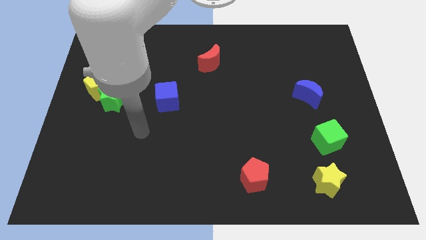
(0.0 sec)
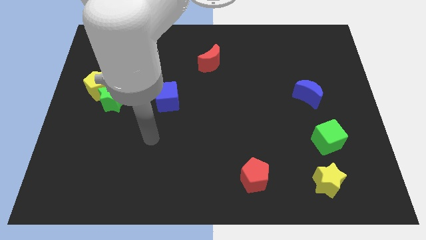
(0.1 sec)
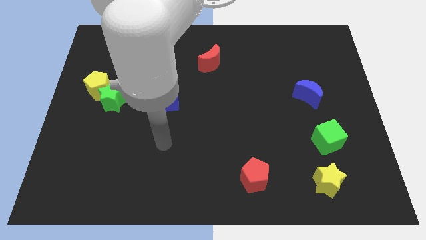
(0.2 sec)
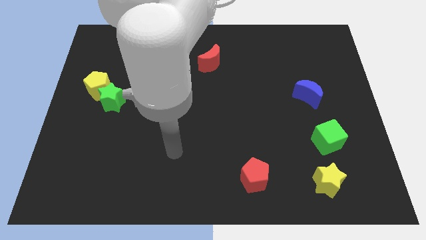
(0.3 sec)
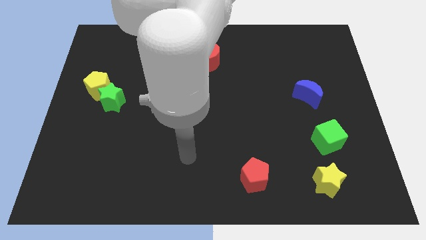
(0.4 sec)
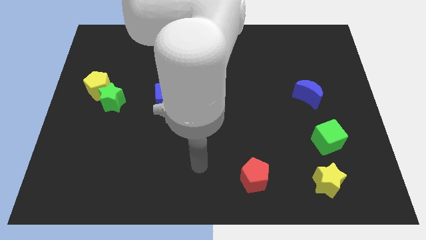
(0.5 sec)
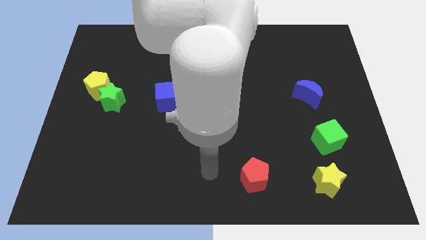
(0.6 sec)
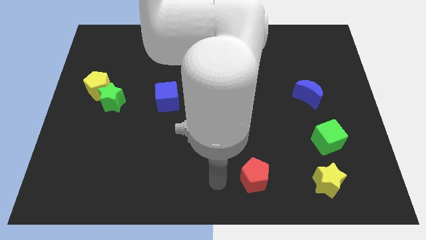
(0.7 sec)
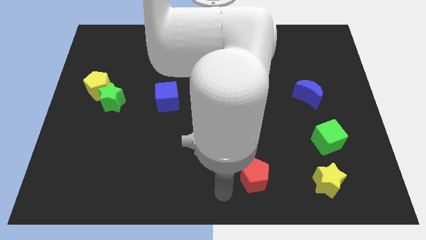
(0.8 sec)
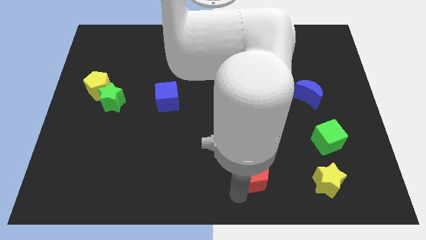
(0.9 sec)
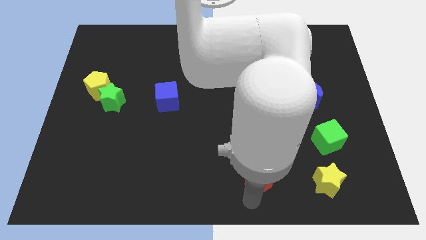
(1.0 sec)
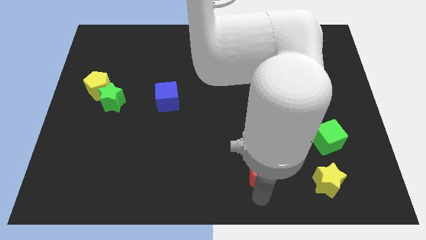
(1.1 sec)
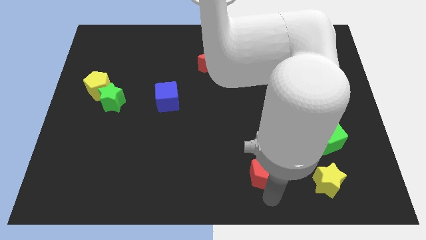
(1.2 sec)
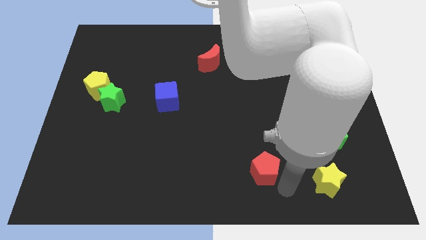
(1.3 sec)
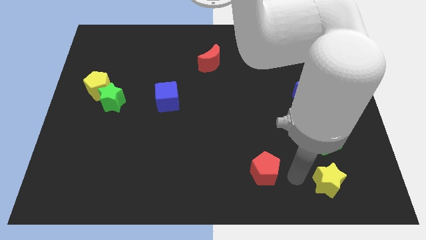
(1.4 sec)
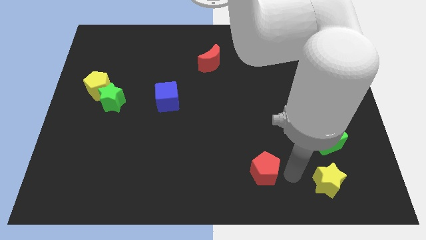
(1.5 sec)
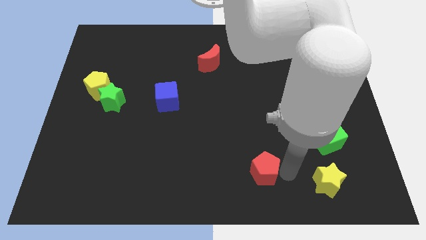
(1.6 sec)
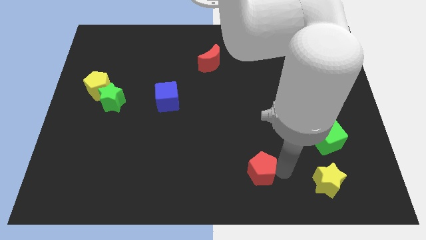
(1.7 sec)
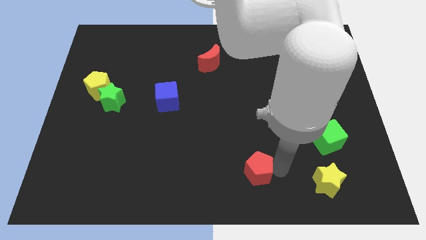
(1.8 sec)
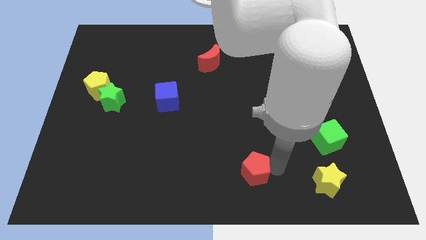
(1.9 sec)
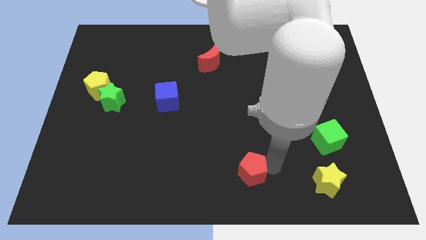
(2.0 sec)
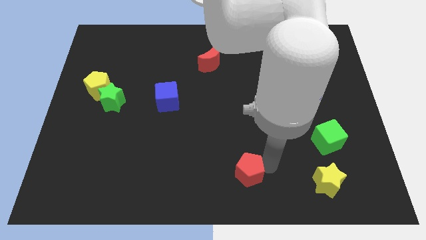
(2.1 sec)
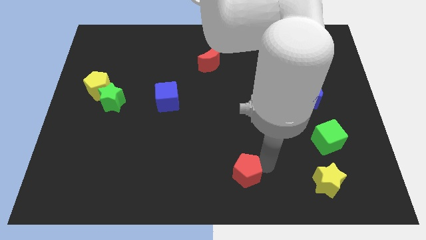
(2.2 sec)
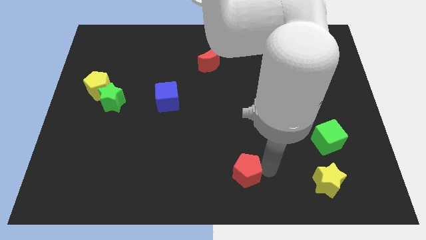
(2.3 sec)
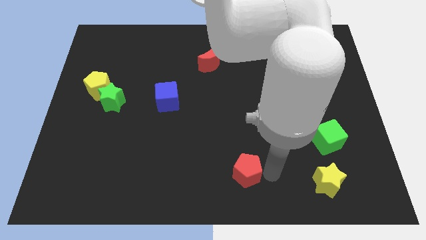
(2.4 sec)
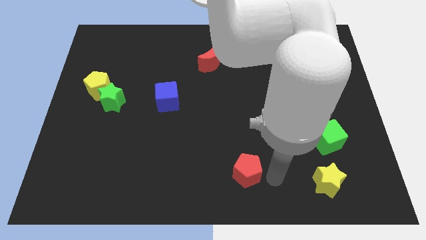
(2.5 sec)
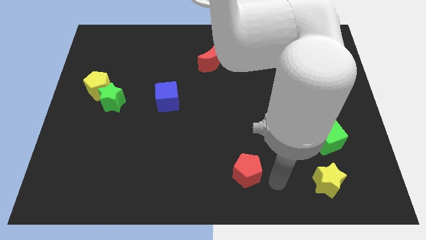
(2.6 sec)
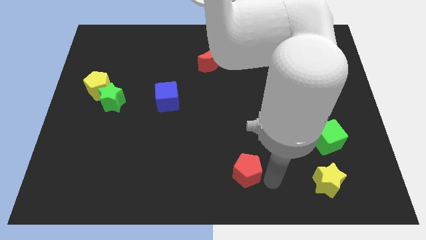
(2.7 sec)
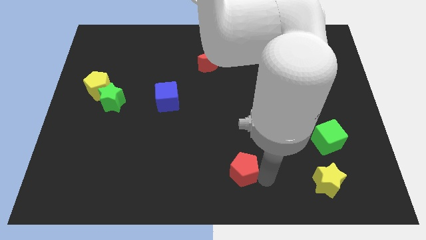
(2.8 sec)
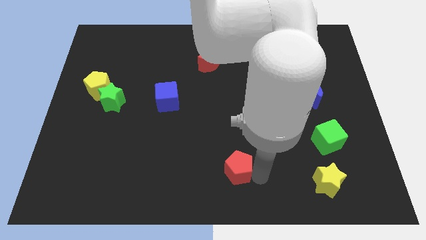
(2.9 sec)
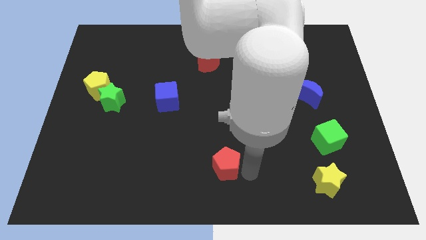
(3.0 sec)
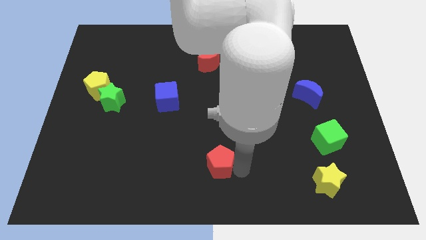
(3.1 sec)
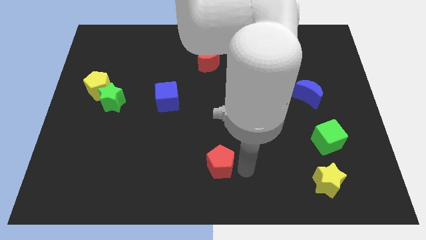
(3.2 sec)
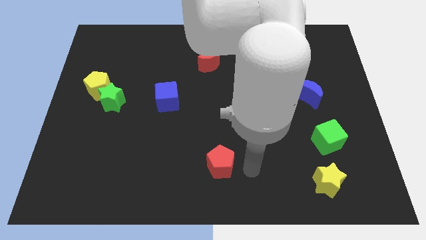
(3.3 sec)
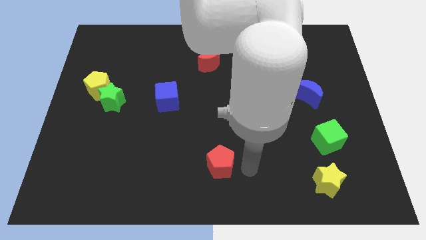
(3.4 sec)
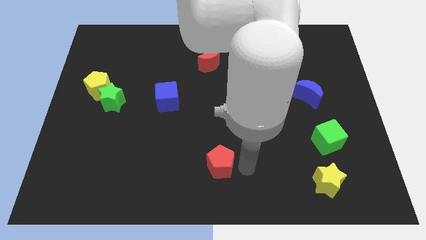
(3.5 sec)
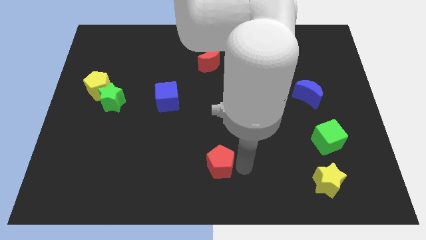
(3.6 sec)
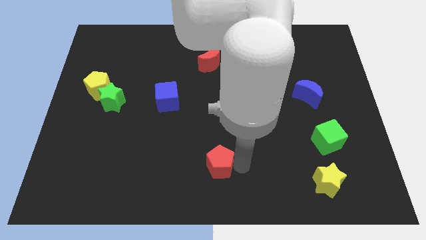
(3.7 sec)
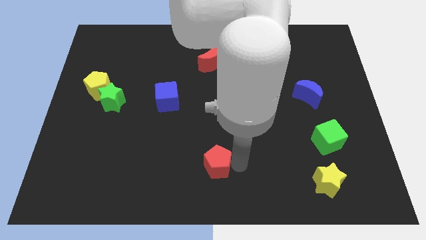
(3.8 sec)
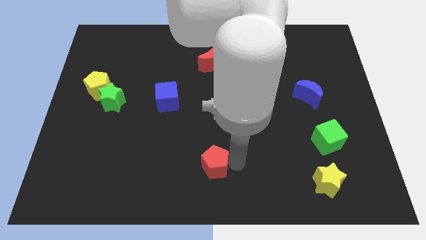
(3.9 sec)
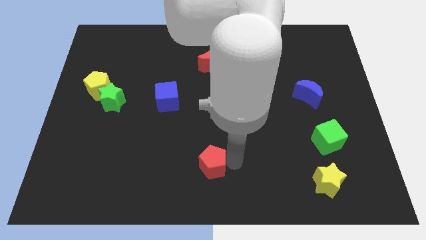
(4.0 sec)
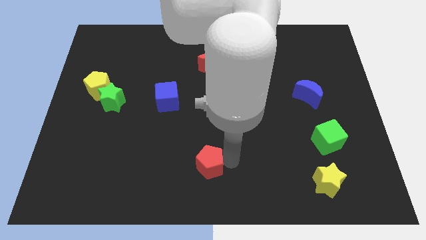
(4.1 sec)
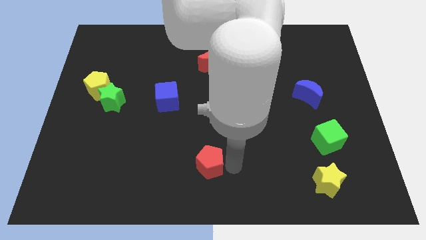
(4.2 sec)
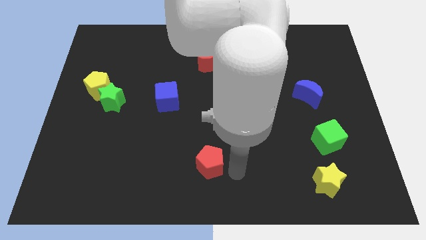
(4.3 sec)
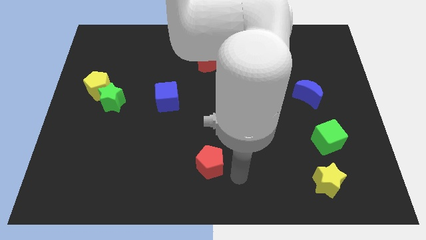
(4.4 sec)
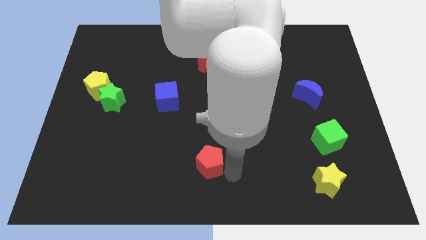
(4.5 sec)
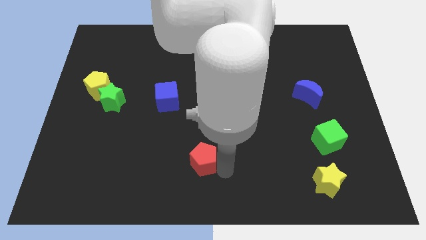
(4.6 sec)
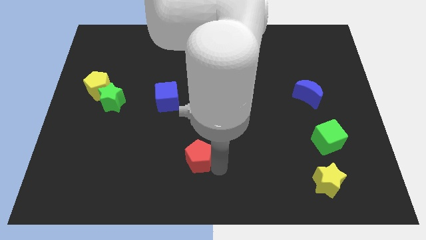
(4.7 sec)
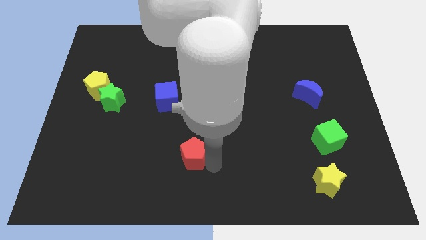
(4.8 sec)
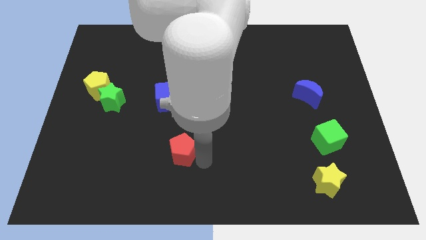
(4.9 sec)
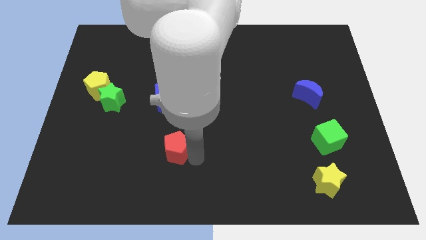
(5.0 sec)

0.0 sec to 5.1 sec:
push the red pentagon below the blue cube

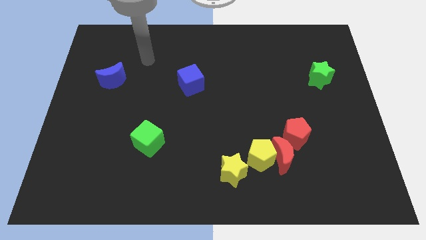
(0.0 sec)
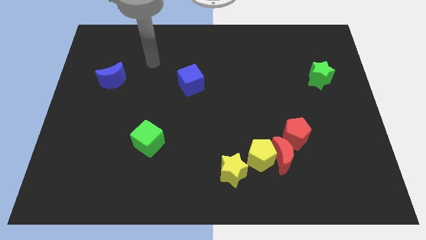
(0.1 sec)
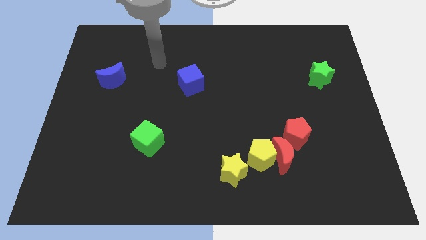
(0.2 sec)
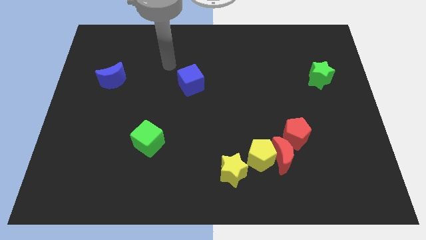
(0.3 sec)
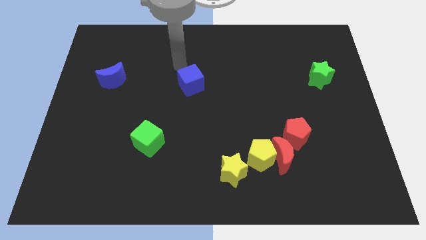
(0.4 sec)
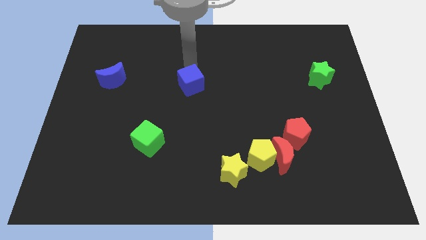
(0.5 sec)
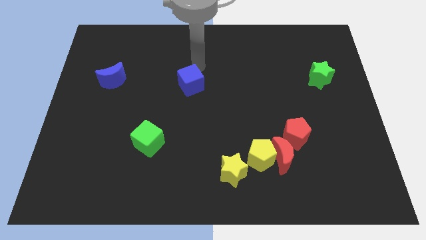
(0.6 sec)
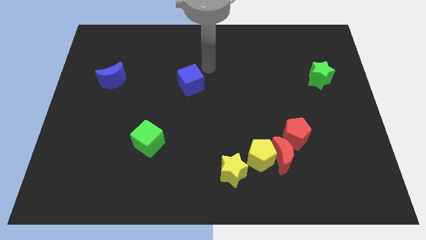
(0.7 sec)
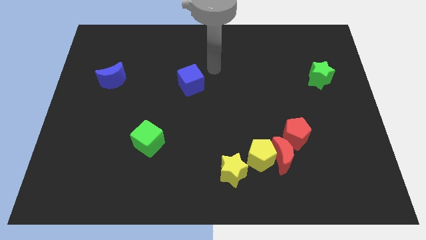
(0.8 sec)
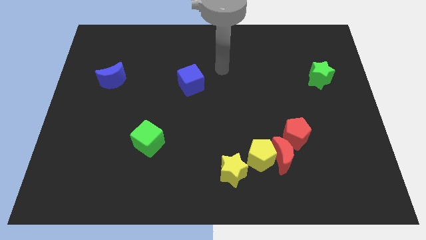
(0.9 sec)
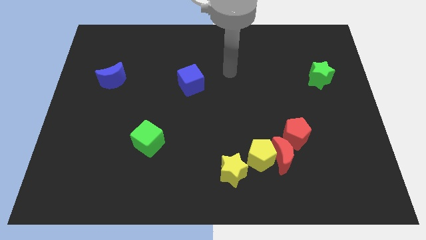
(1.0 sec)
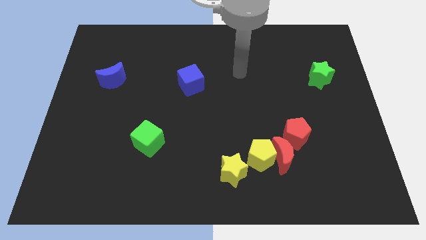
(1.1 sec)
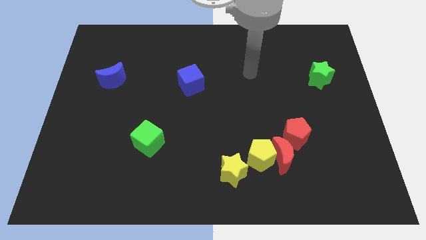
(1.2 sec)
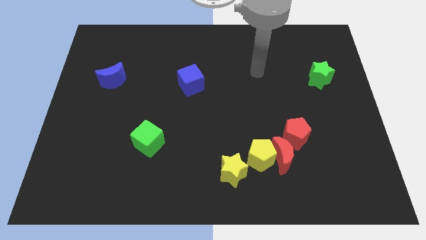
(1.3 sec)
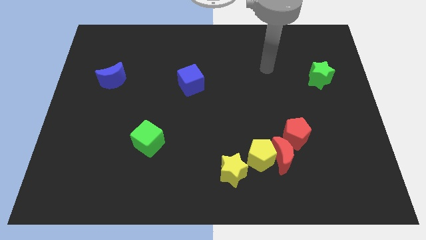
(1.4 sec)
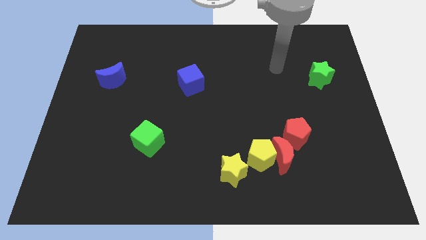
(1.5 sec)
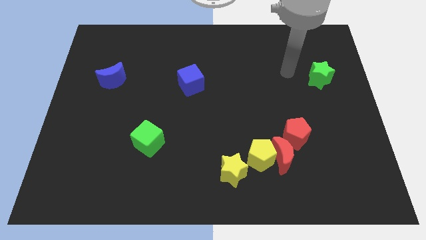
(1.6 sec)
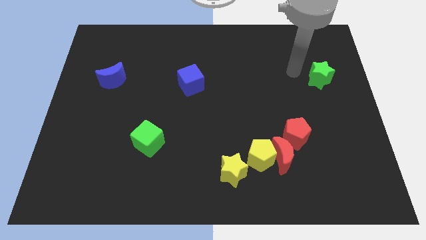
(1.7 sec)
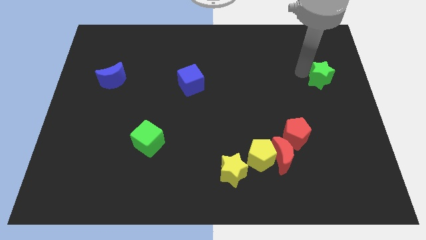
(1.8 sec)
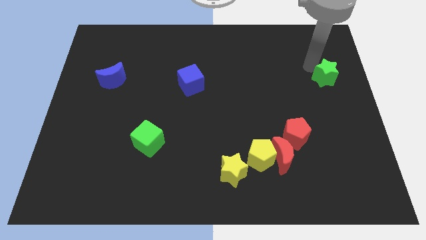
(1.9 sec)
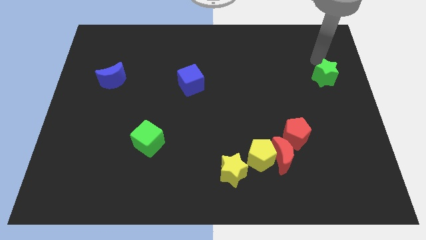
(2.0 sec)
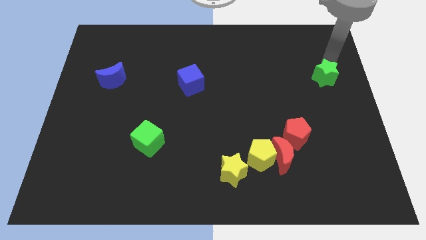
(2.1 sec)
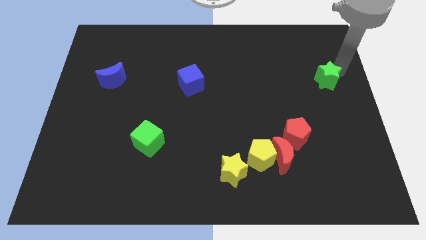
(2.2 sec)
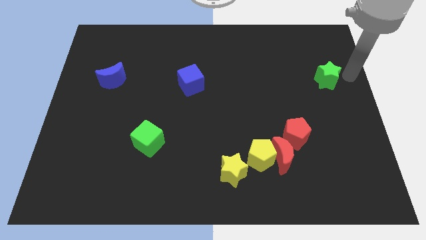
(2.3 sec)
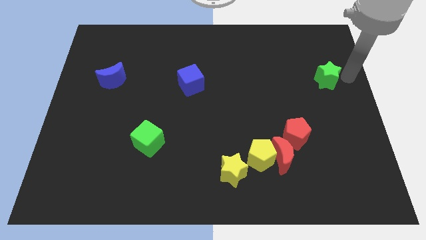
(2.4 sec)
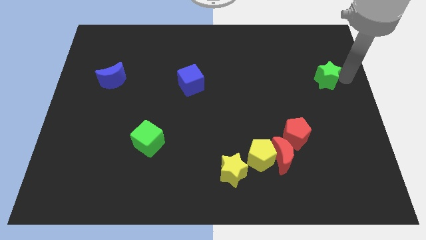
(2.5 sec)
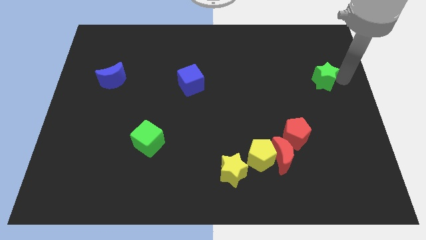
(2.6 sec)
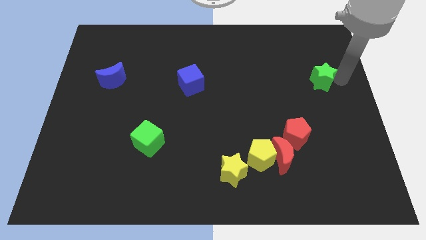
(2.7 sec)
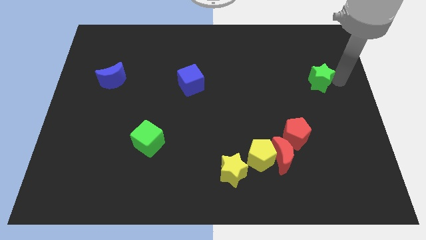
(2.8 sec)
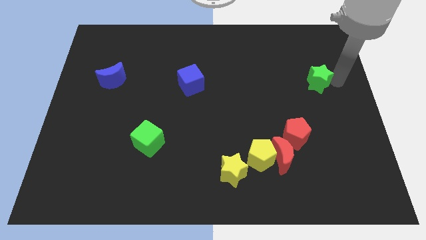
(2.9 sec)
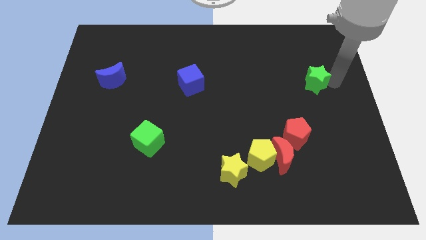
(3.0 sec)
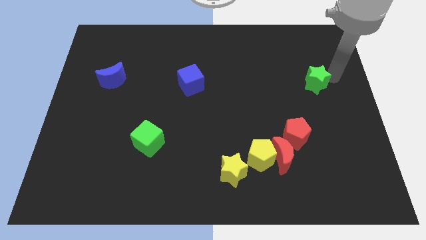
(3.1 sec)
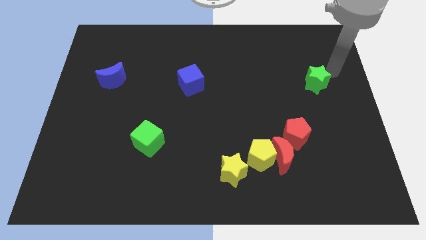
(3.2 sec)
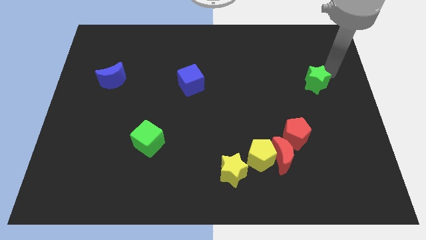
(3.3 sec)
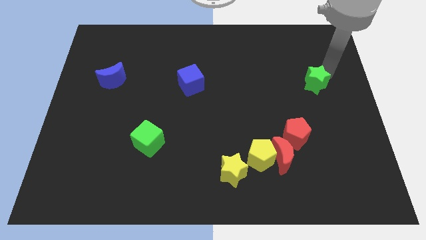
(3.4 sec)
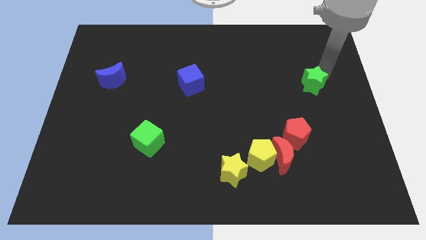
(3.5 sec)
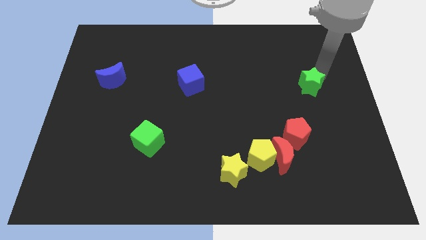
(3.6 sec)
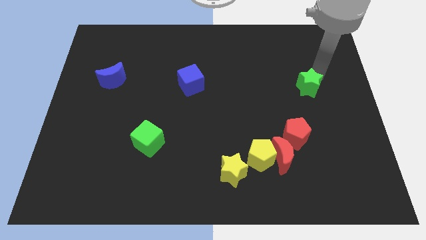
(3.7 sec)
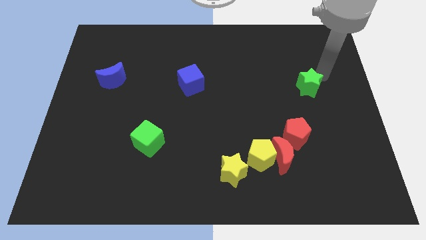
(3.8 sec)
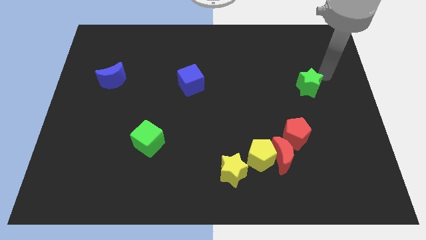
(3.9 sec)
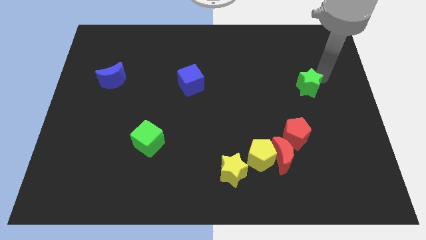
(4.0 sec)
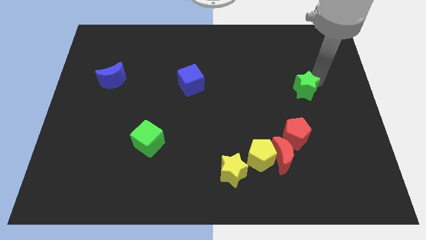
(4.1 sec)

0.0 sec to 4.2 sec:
slide the green star to the top side of the red pentagon
